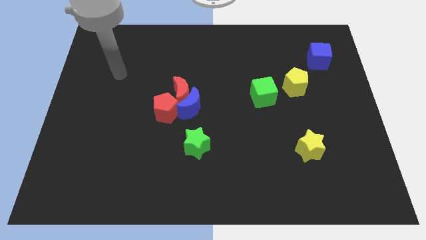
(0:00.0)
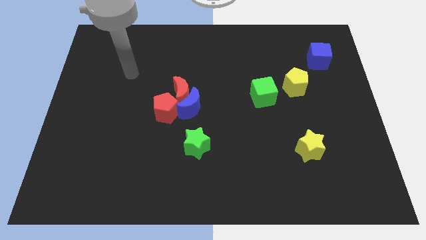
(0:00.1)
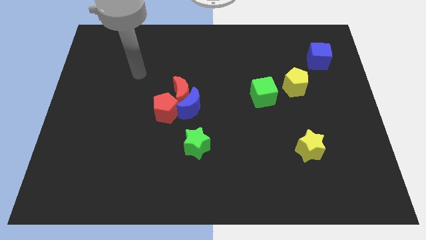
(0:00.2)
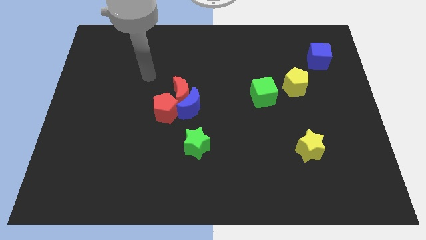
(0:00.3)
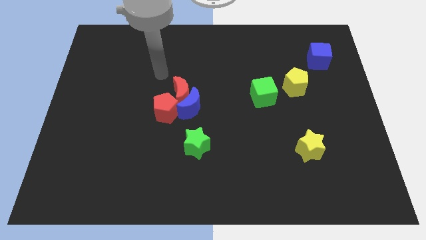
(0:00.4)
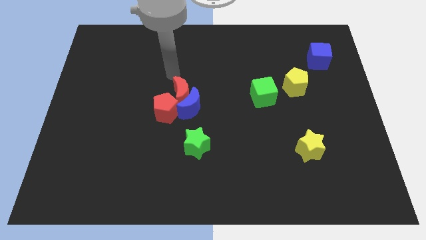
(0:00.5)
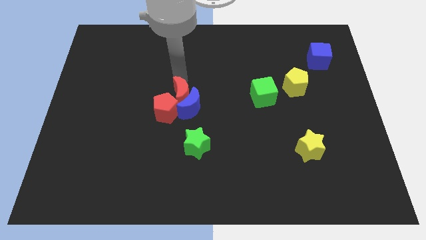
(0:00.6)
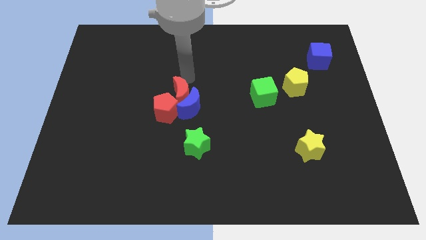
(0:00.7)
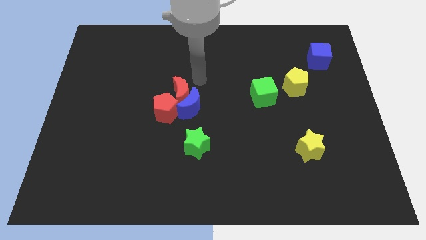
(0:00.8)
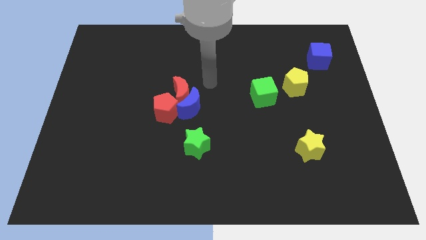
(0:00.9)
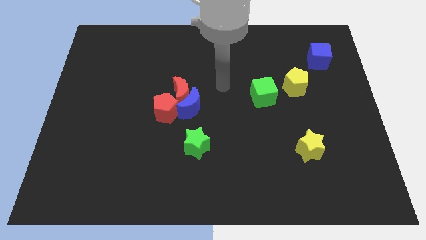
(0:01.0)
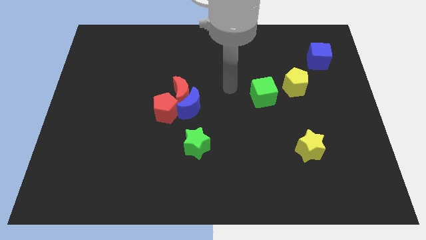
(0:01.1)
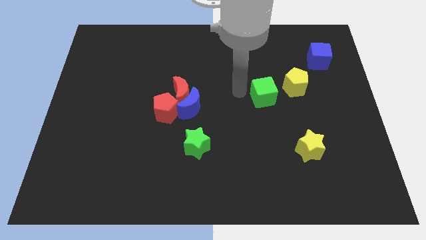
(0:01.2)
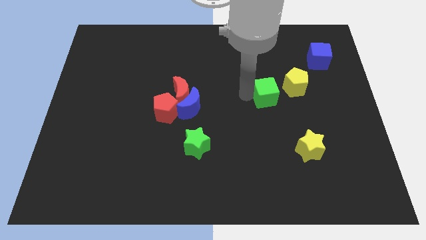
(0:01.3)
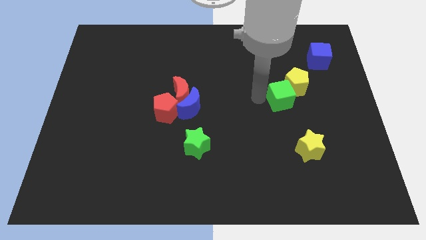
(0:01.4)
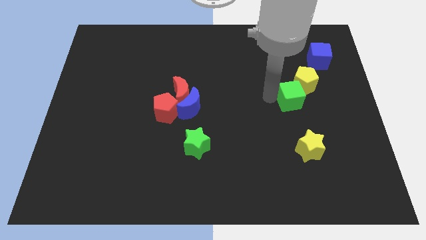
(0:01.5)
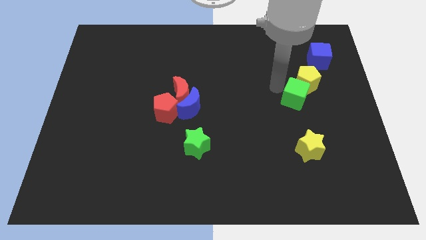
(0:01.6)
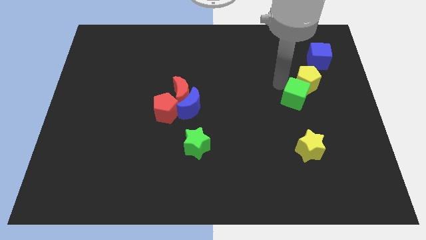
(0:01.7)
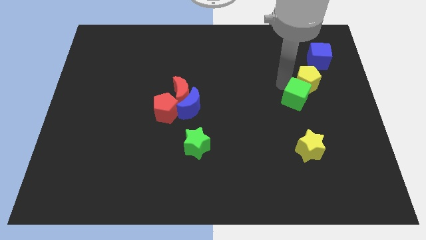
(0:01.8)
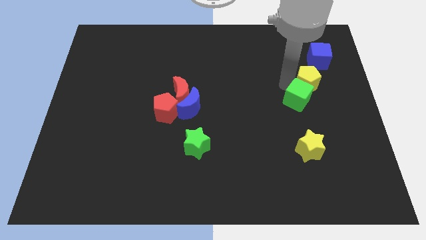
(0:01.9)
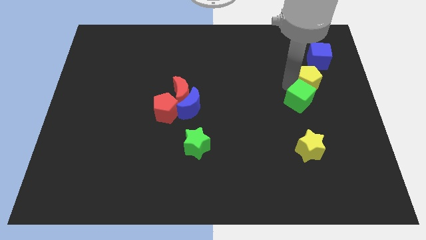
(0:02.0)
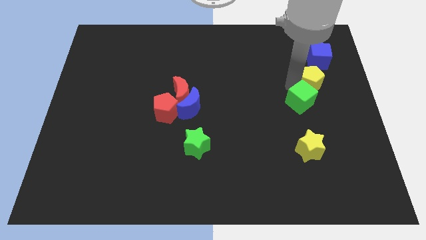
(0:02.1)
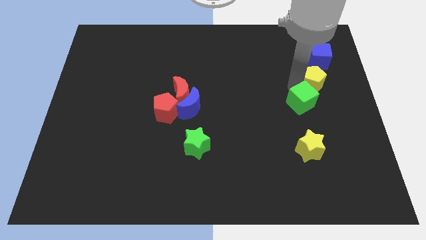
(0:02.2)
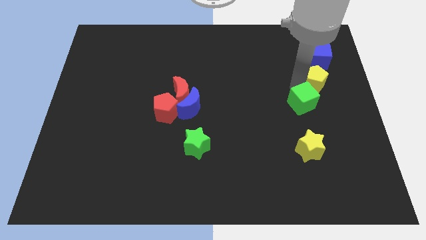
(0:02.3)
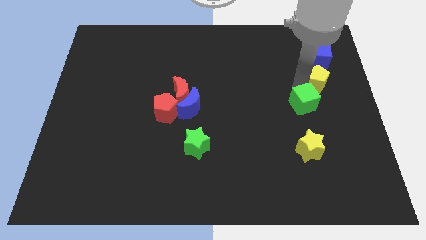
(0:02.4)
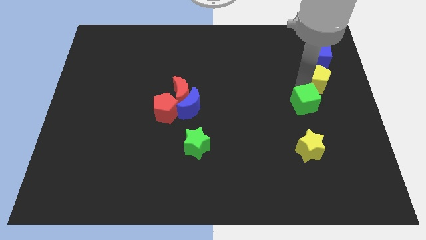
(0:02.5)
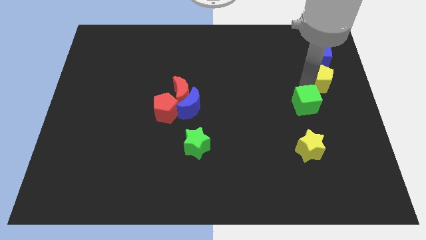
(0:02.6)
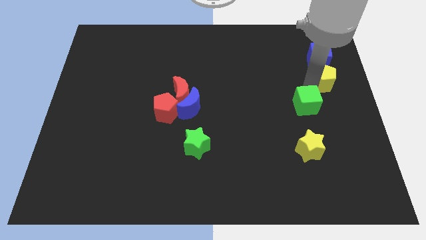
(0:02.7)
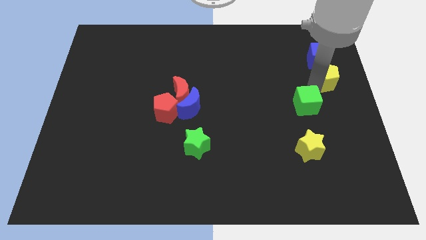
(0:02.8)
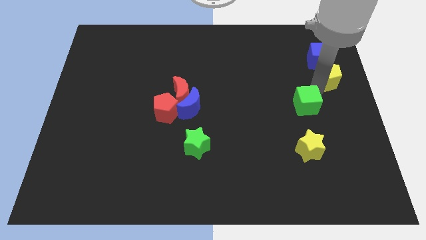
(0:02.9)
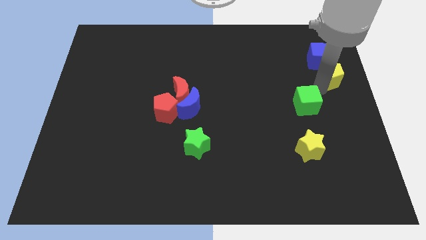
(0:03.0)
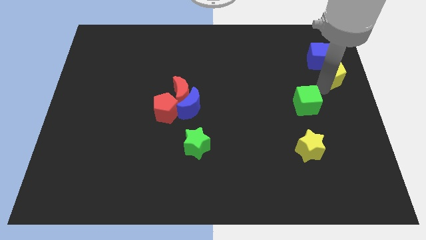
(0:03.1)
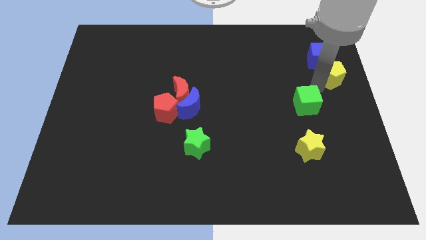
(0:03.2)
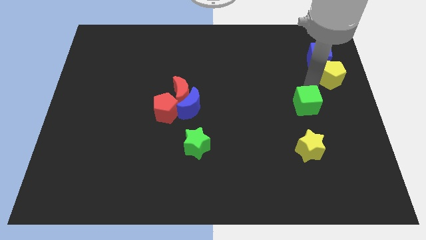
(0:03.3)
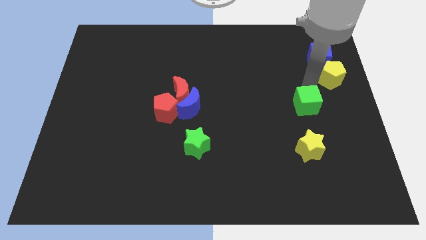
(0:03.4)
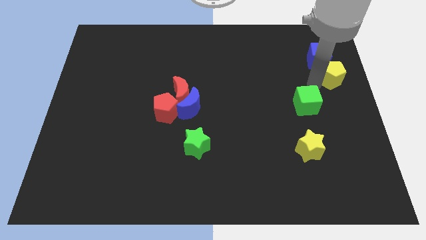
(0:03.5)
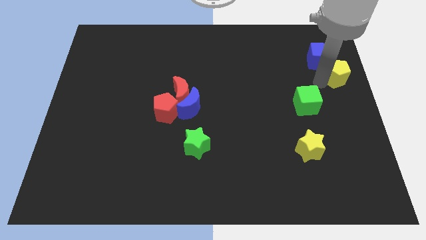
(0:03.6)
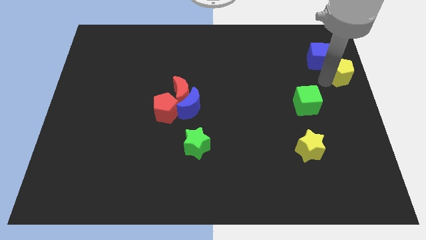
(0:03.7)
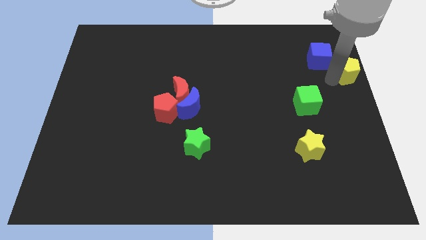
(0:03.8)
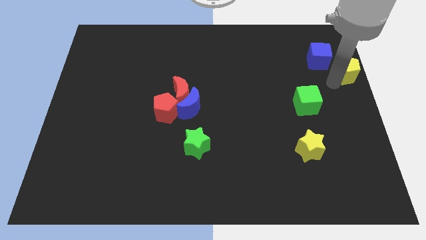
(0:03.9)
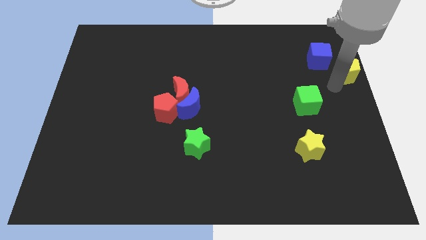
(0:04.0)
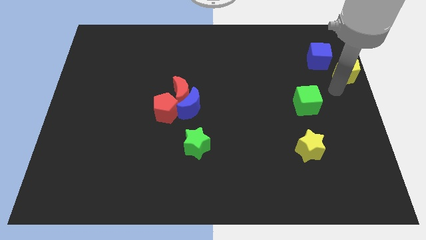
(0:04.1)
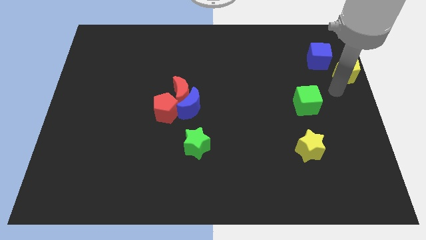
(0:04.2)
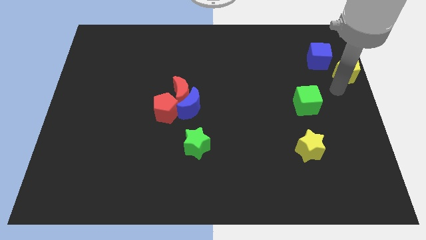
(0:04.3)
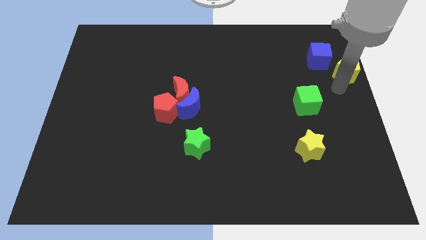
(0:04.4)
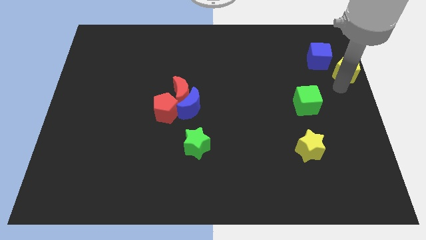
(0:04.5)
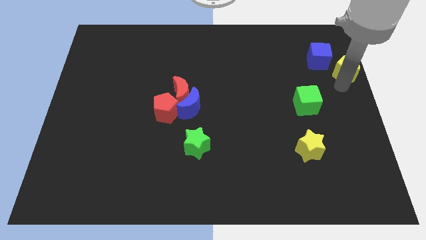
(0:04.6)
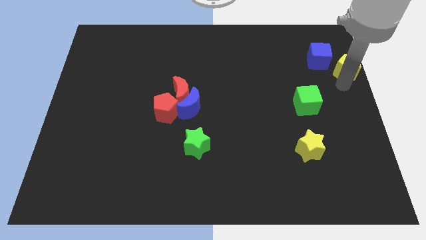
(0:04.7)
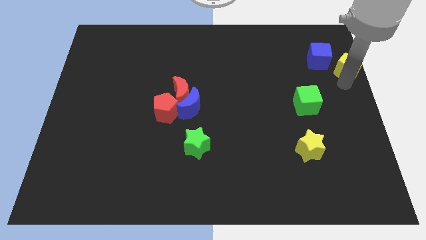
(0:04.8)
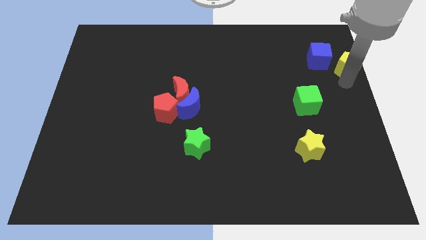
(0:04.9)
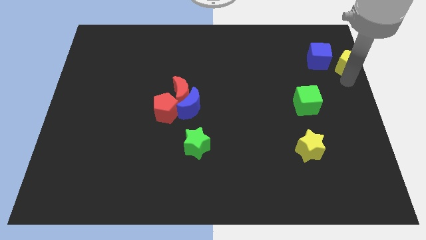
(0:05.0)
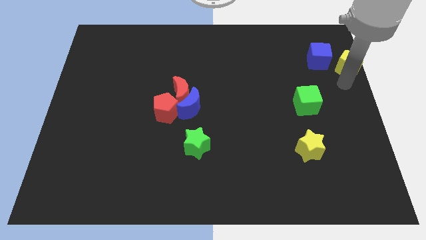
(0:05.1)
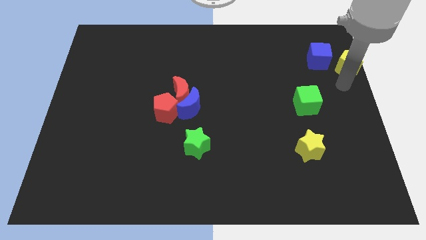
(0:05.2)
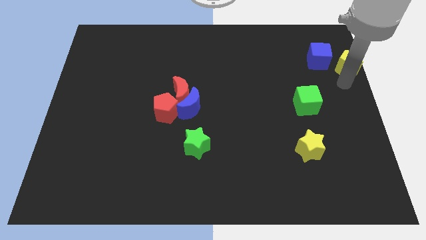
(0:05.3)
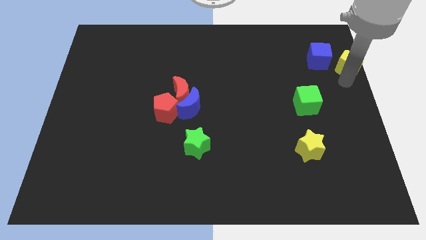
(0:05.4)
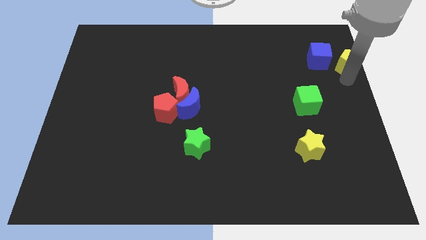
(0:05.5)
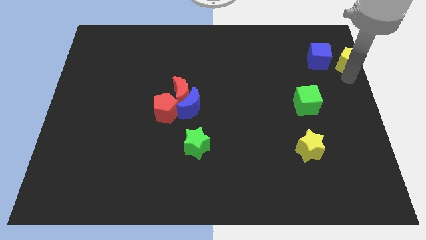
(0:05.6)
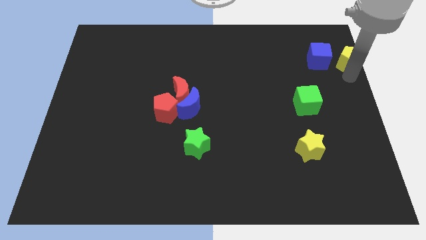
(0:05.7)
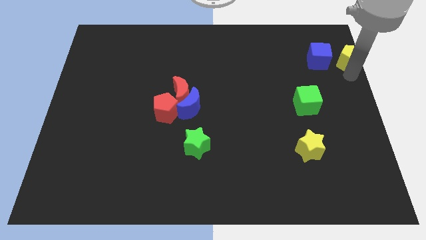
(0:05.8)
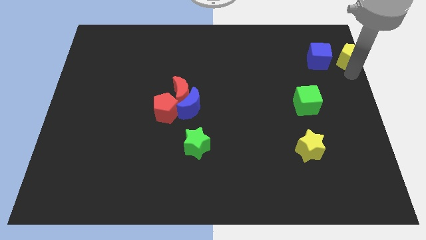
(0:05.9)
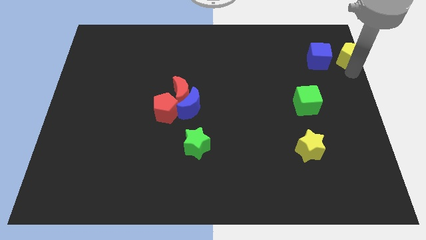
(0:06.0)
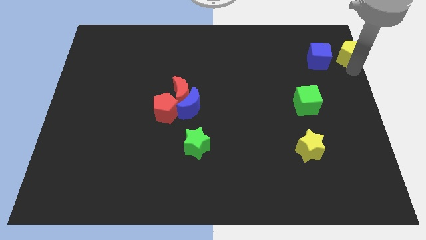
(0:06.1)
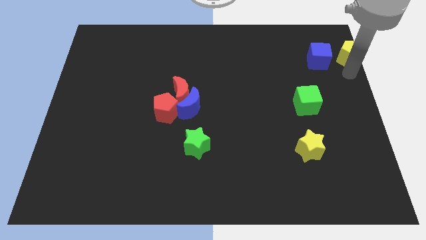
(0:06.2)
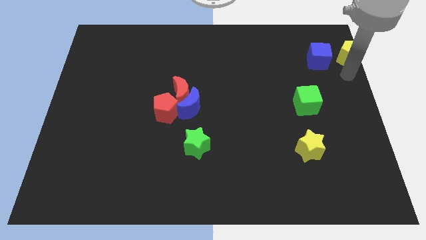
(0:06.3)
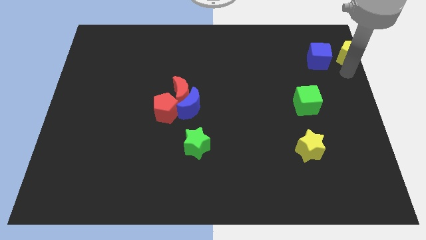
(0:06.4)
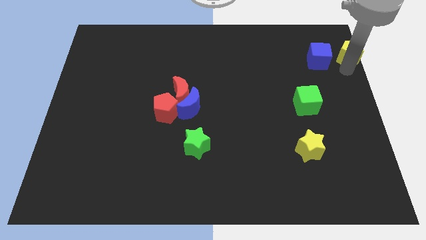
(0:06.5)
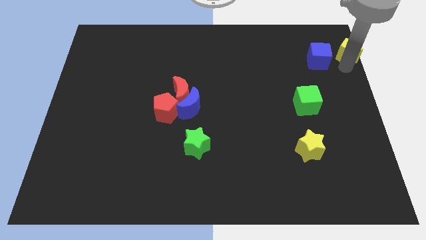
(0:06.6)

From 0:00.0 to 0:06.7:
push the yellow pentagon to the top right corner
